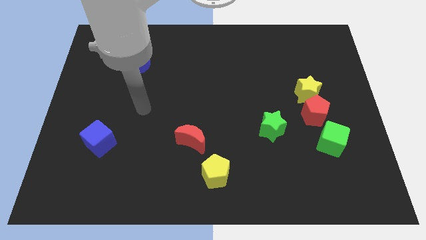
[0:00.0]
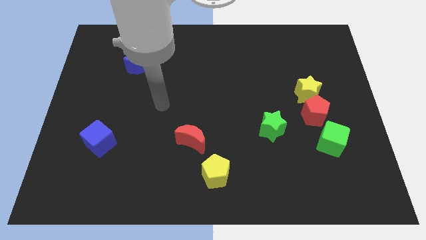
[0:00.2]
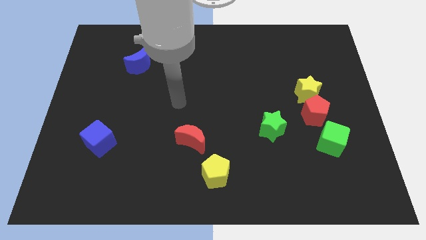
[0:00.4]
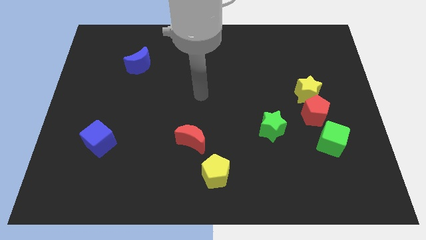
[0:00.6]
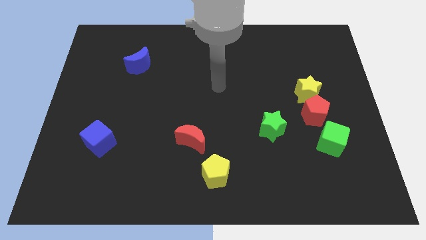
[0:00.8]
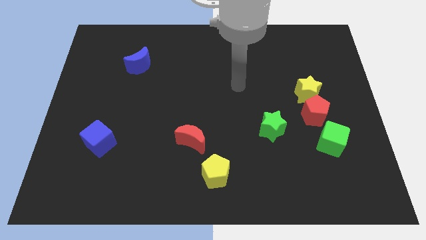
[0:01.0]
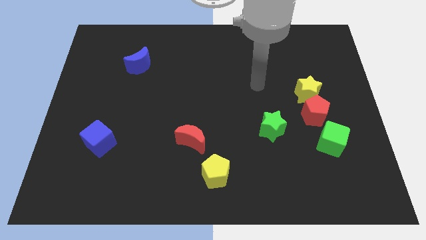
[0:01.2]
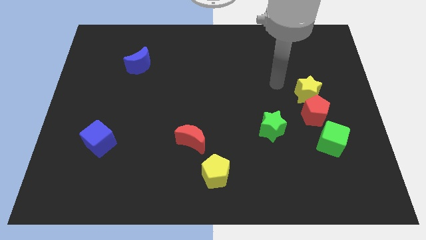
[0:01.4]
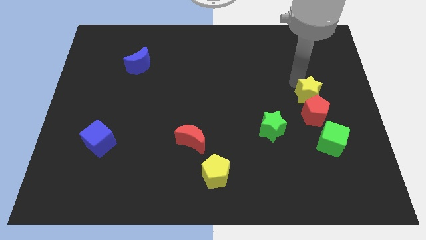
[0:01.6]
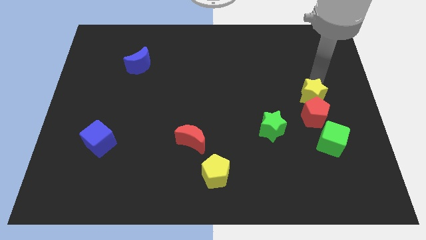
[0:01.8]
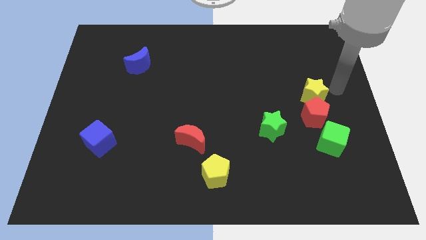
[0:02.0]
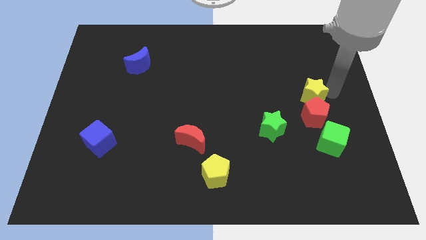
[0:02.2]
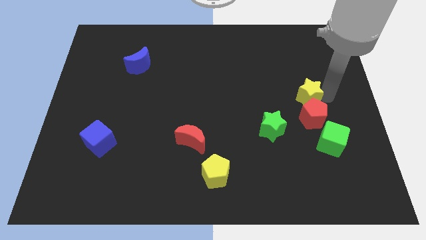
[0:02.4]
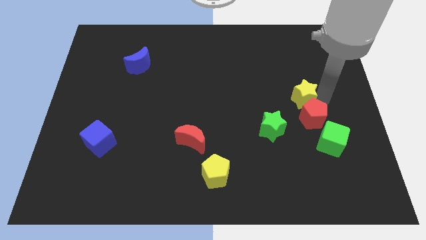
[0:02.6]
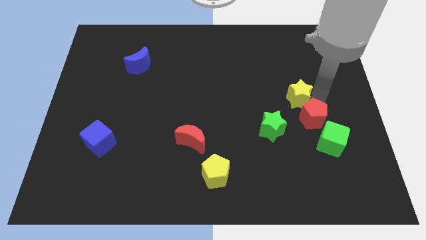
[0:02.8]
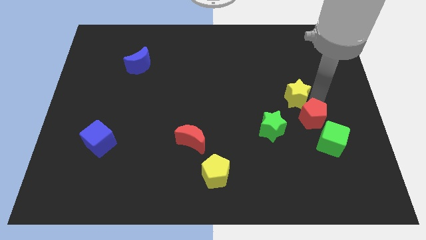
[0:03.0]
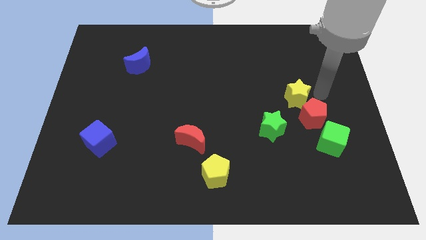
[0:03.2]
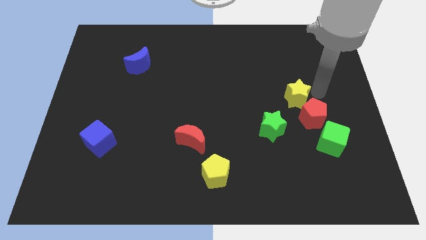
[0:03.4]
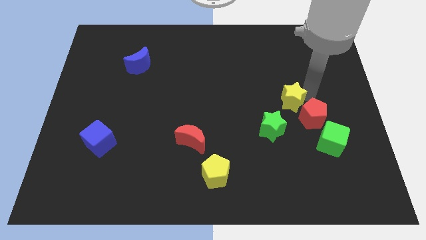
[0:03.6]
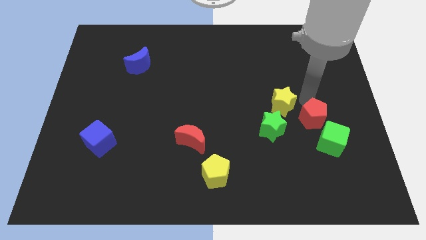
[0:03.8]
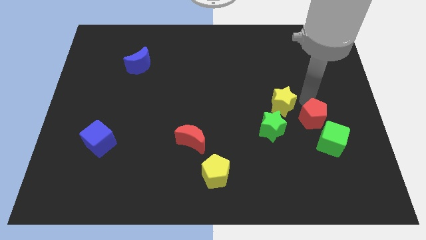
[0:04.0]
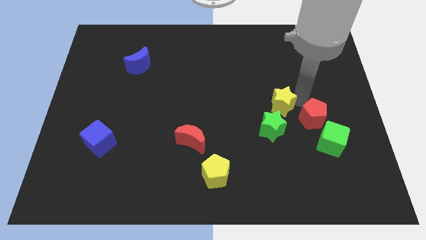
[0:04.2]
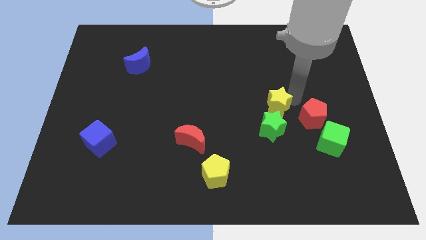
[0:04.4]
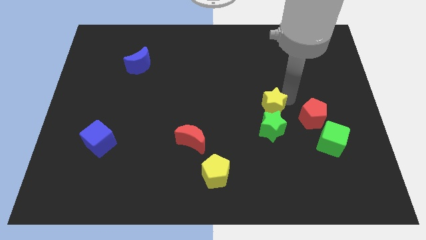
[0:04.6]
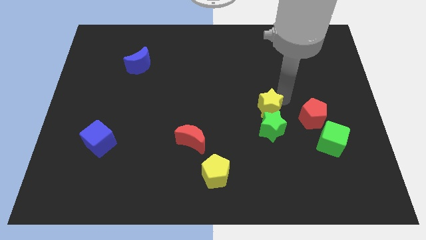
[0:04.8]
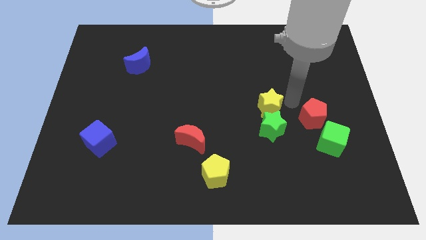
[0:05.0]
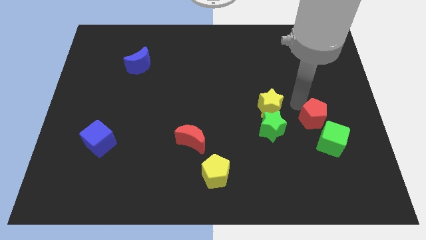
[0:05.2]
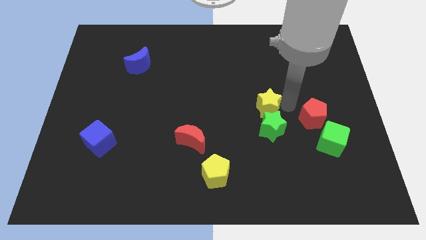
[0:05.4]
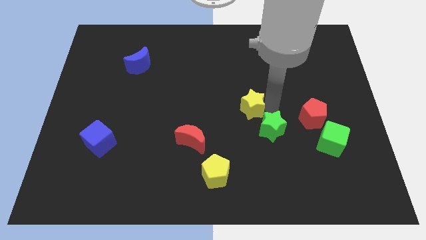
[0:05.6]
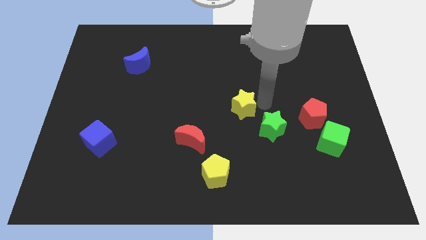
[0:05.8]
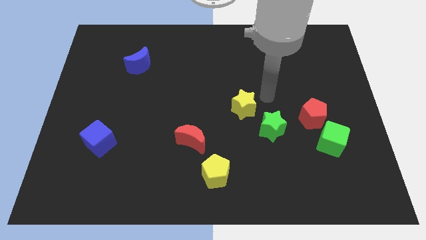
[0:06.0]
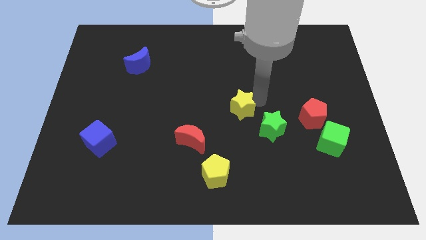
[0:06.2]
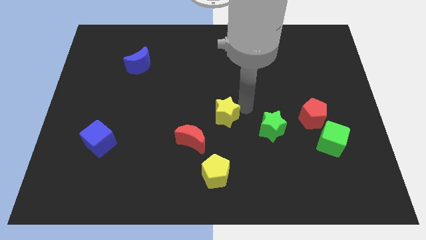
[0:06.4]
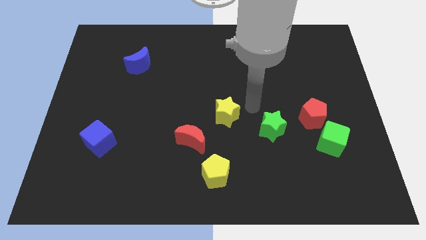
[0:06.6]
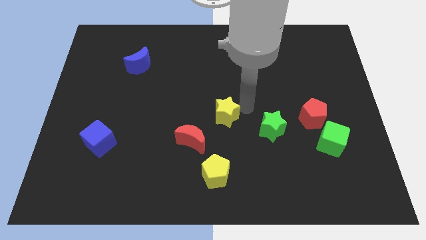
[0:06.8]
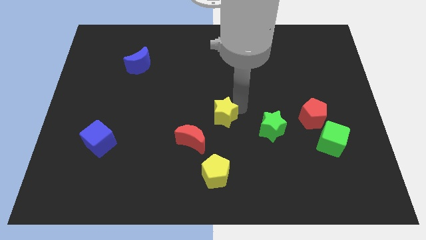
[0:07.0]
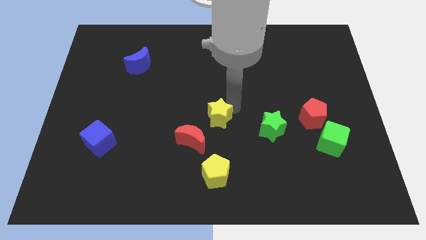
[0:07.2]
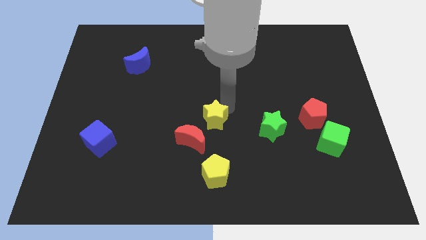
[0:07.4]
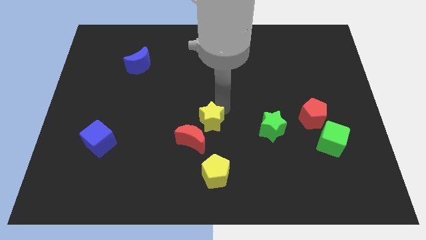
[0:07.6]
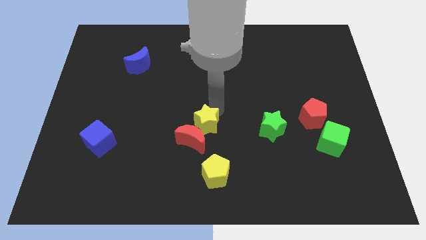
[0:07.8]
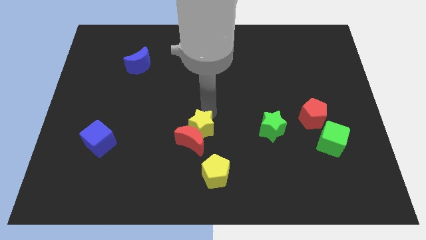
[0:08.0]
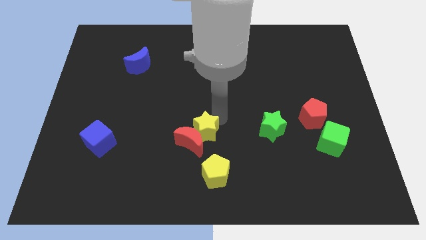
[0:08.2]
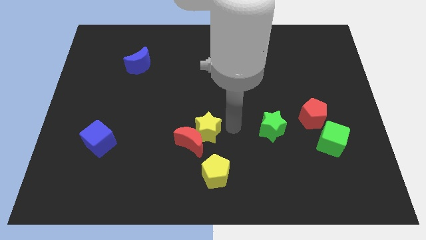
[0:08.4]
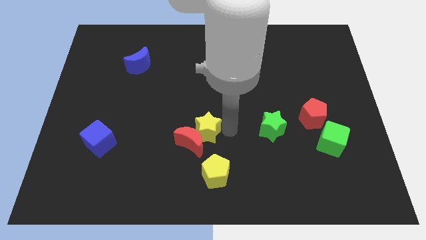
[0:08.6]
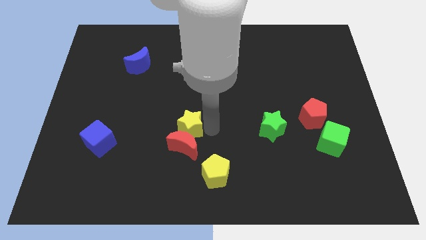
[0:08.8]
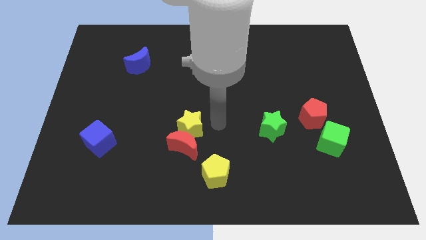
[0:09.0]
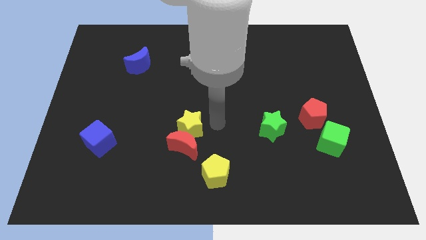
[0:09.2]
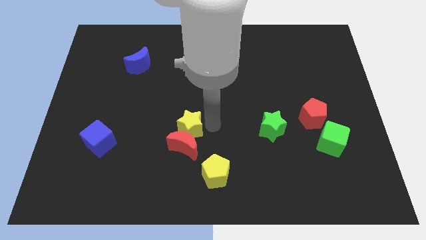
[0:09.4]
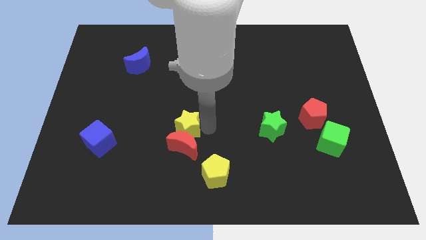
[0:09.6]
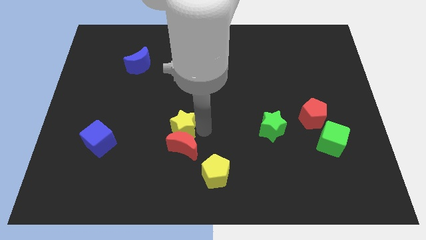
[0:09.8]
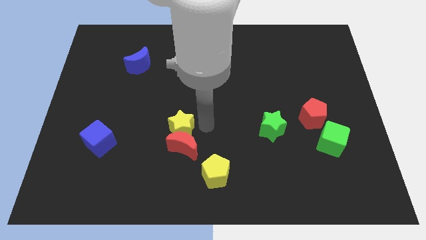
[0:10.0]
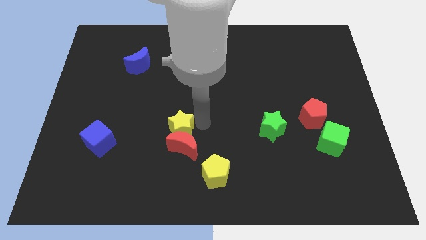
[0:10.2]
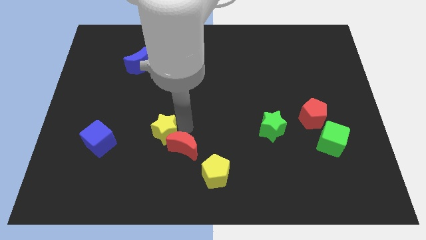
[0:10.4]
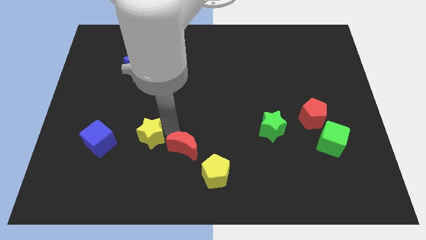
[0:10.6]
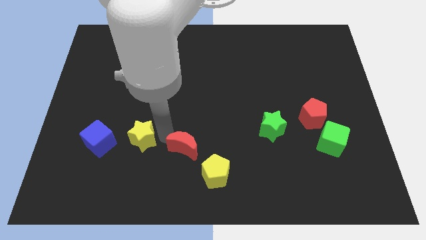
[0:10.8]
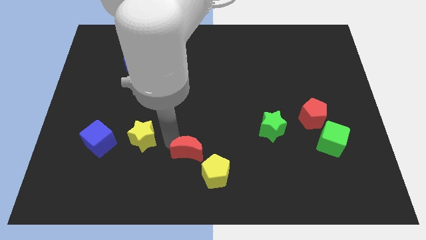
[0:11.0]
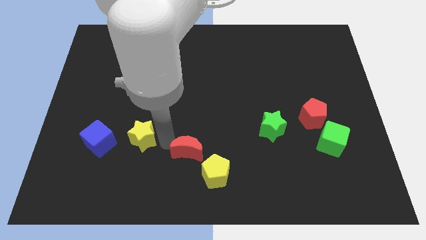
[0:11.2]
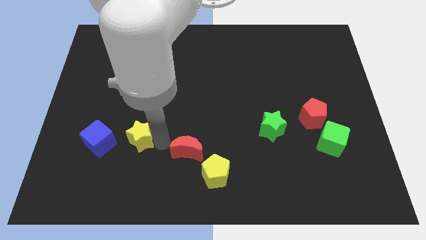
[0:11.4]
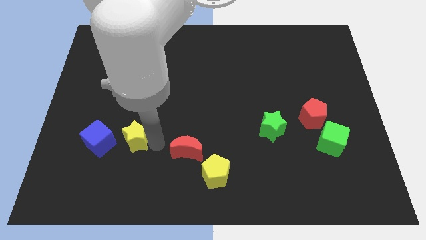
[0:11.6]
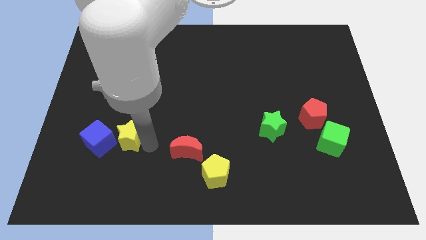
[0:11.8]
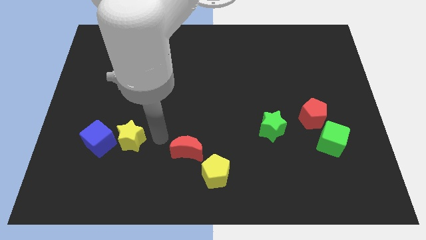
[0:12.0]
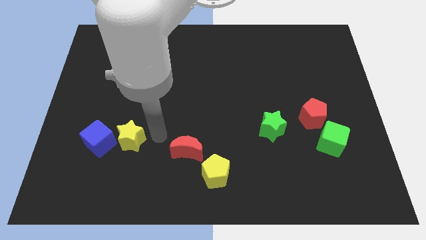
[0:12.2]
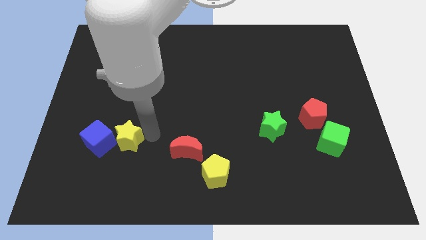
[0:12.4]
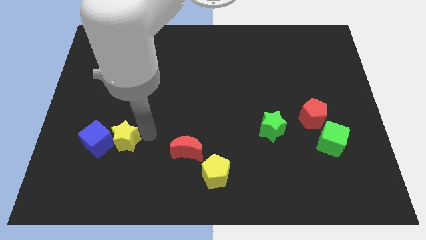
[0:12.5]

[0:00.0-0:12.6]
push the yellow star towards the blue cube
